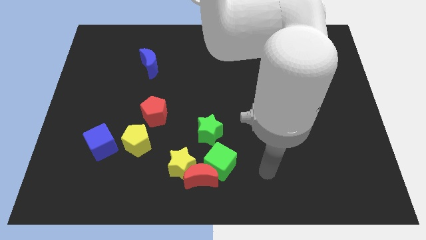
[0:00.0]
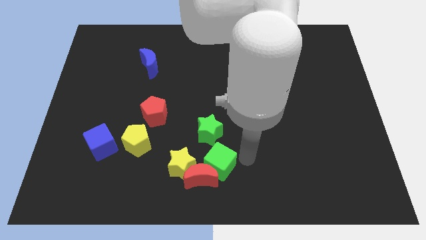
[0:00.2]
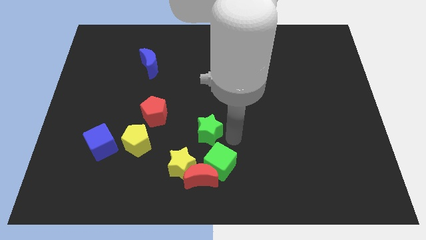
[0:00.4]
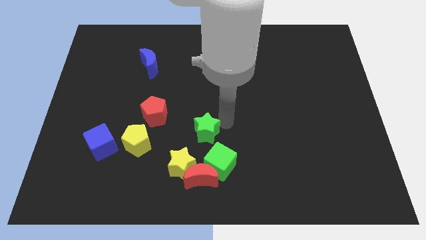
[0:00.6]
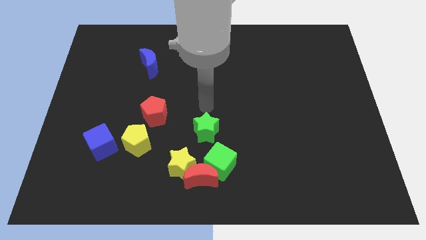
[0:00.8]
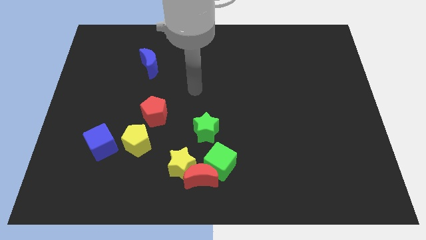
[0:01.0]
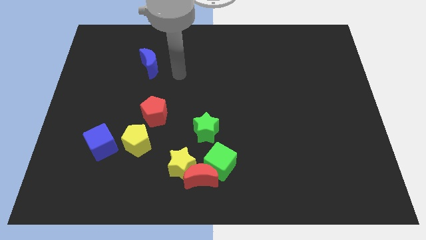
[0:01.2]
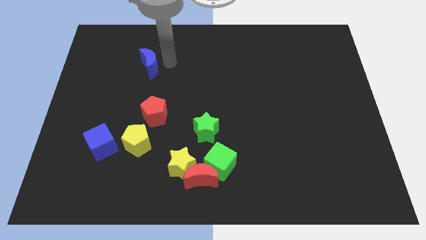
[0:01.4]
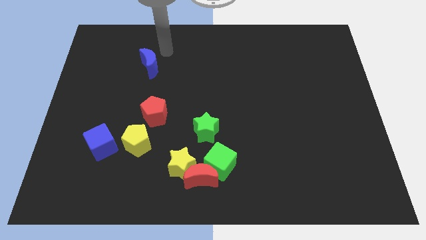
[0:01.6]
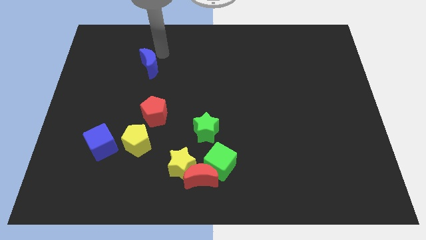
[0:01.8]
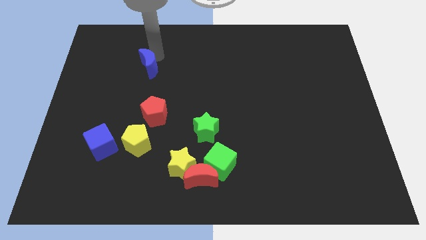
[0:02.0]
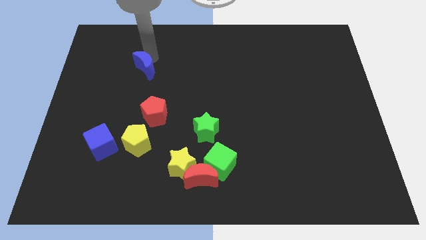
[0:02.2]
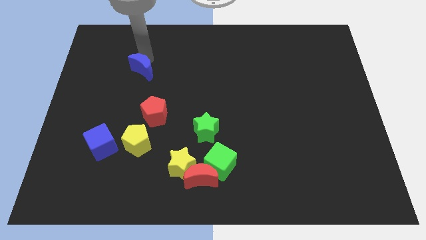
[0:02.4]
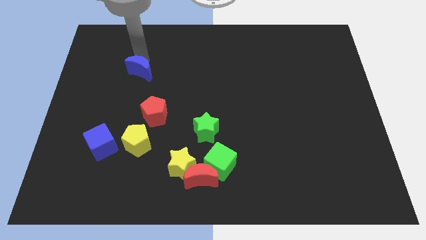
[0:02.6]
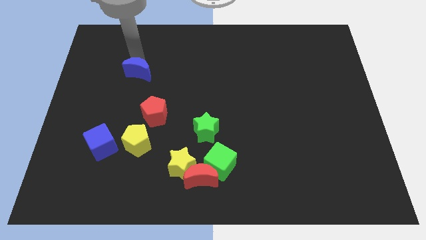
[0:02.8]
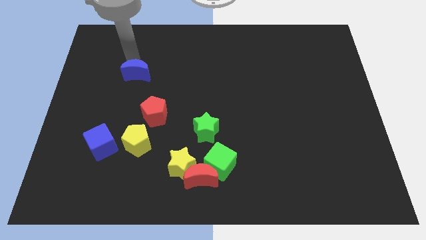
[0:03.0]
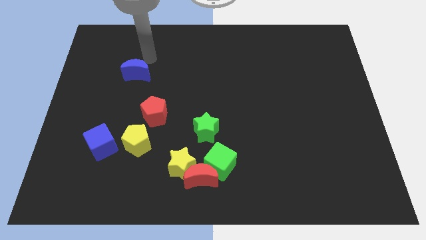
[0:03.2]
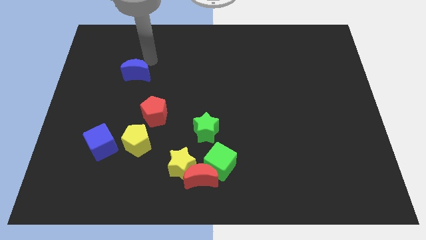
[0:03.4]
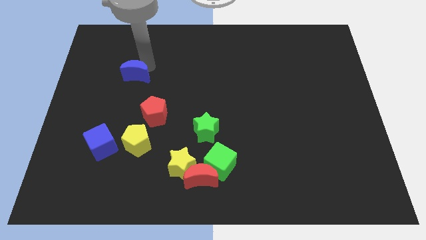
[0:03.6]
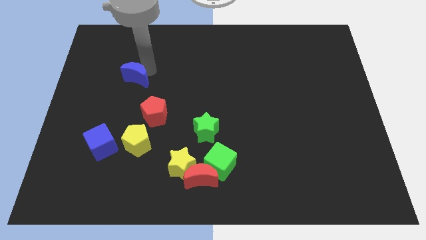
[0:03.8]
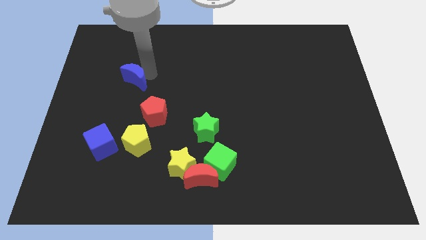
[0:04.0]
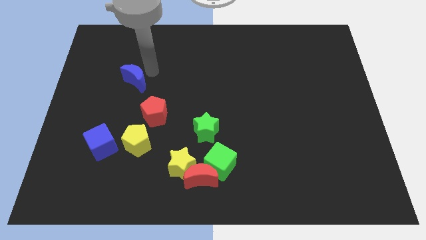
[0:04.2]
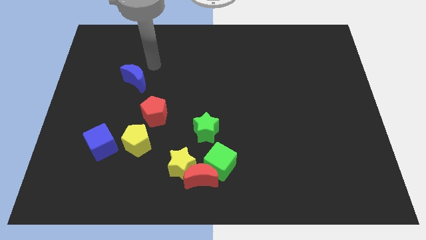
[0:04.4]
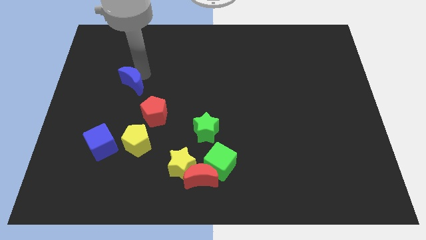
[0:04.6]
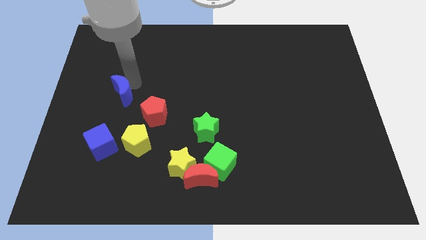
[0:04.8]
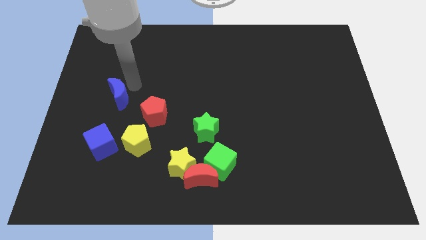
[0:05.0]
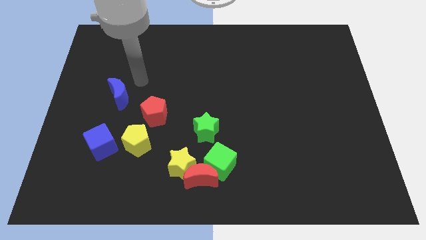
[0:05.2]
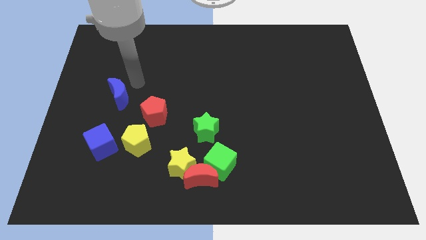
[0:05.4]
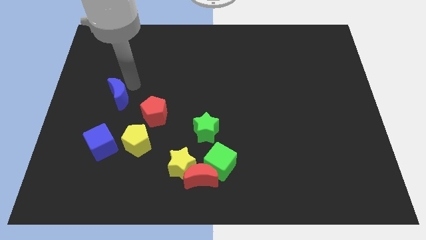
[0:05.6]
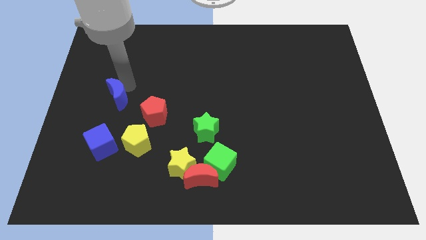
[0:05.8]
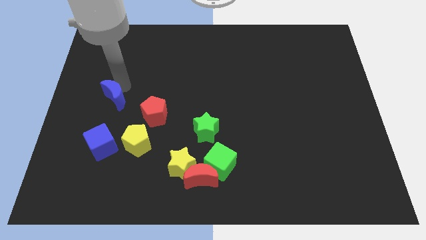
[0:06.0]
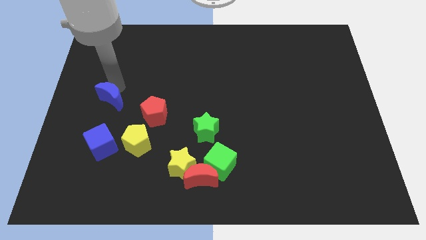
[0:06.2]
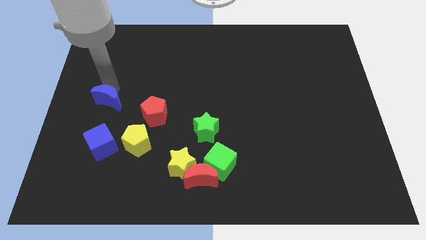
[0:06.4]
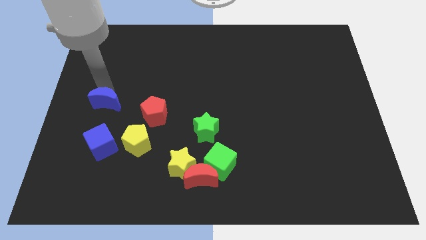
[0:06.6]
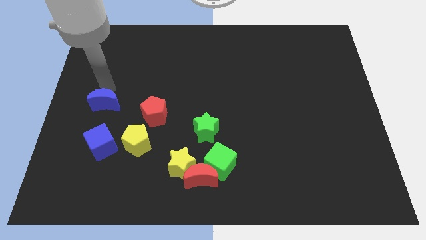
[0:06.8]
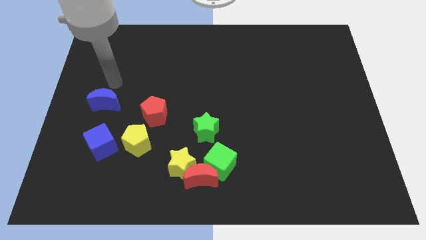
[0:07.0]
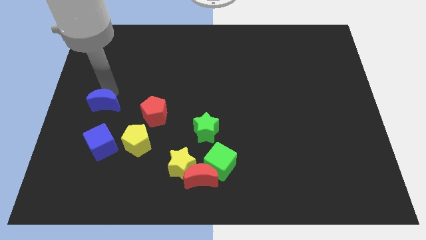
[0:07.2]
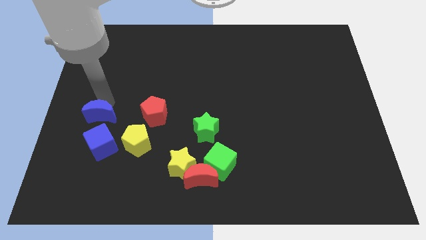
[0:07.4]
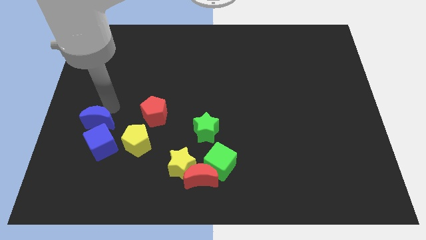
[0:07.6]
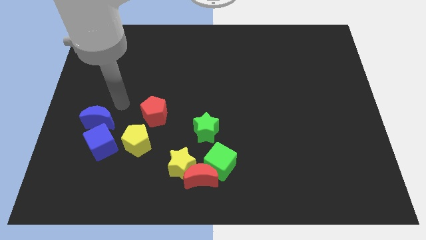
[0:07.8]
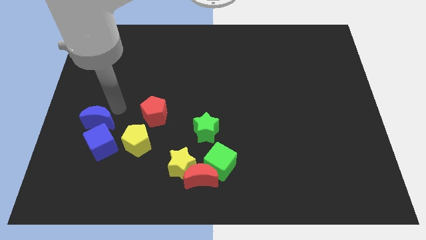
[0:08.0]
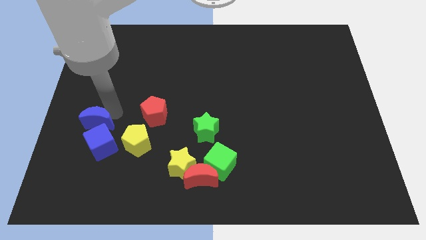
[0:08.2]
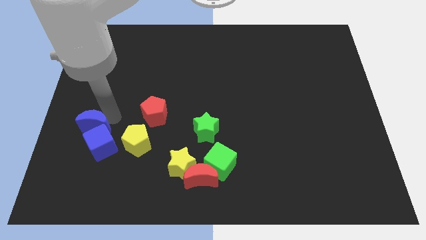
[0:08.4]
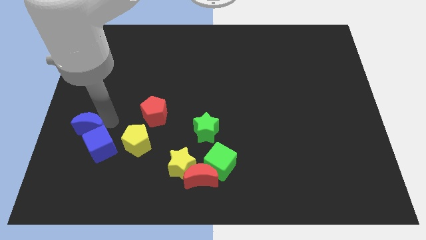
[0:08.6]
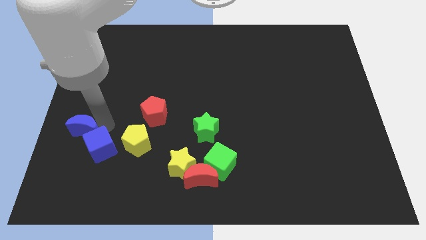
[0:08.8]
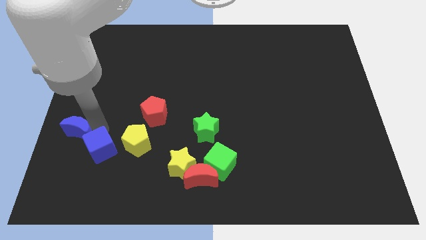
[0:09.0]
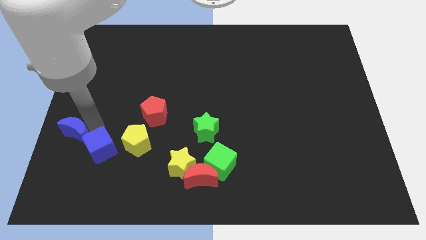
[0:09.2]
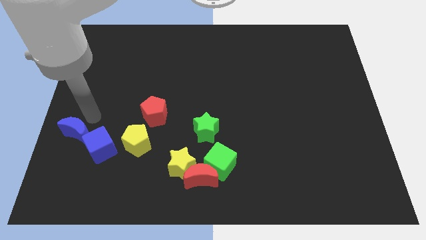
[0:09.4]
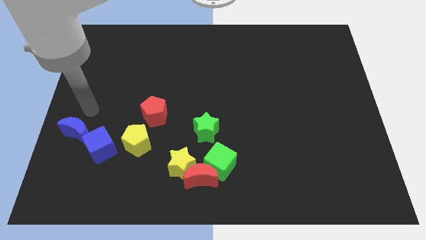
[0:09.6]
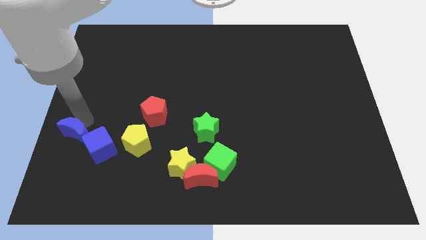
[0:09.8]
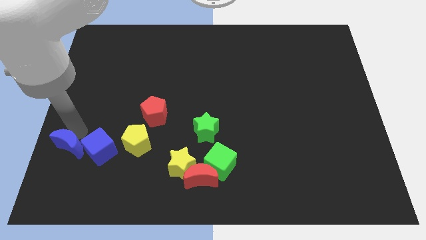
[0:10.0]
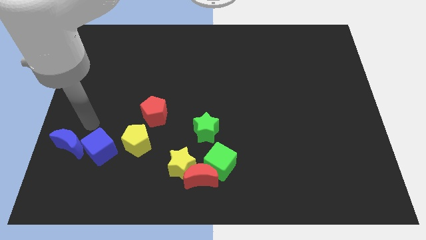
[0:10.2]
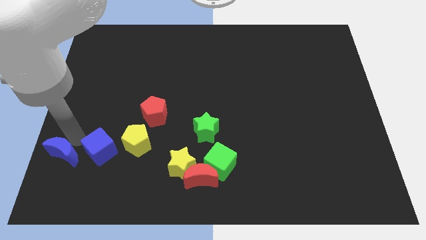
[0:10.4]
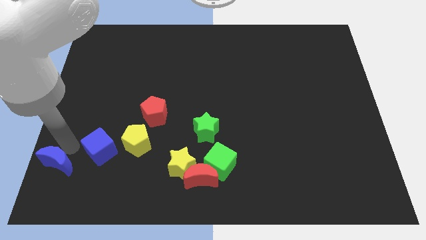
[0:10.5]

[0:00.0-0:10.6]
put the blue moon to the lower left corner

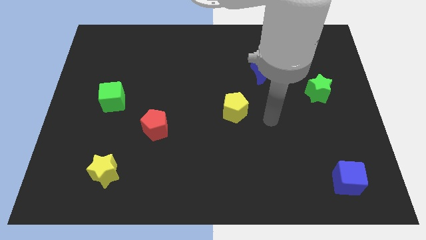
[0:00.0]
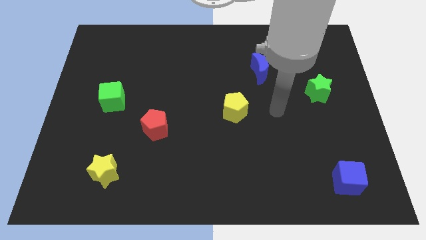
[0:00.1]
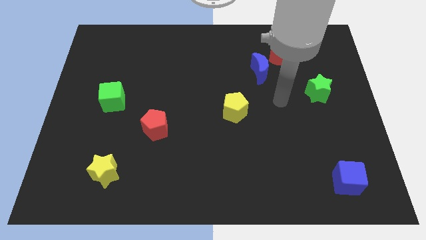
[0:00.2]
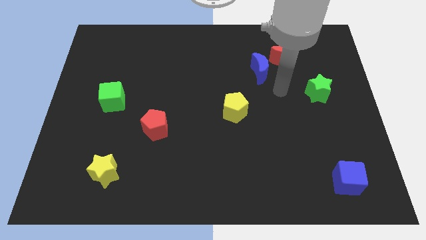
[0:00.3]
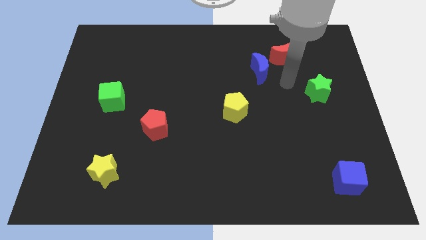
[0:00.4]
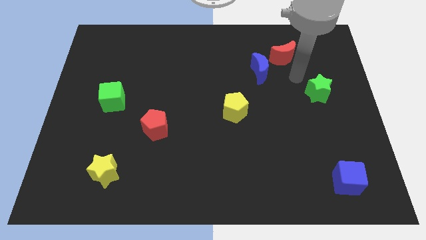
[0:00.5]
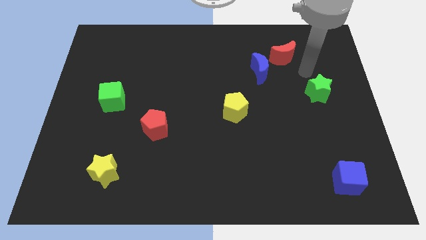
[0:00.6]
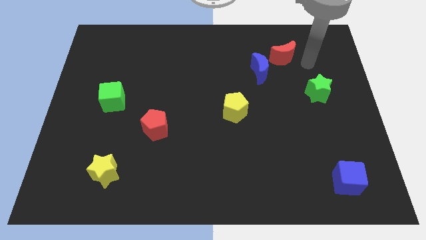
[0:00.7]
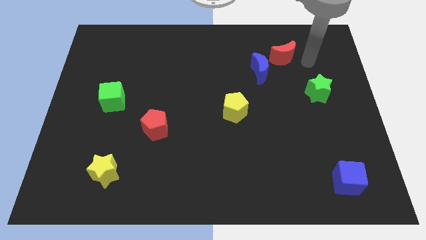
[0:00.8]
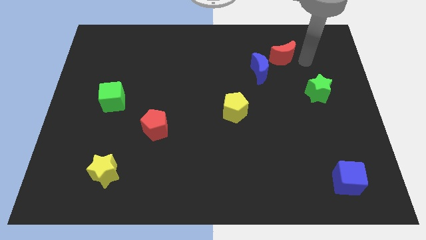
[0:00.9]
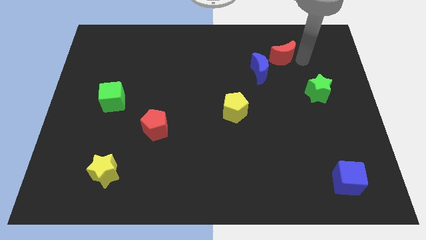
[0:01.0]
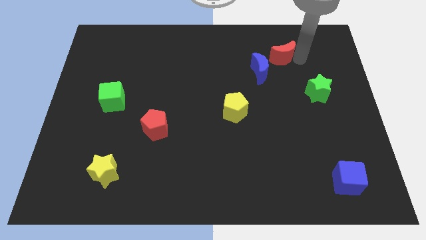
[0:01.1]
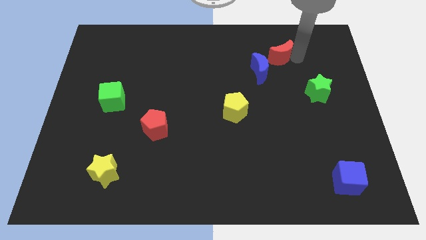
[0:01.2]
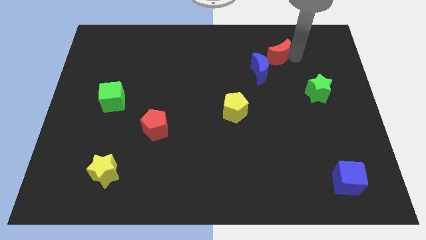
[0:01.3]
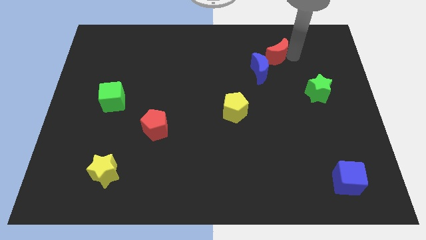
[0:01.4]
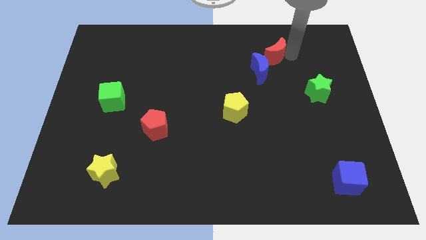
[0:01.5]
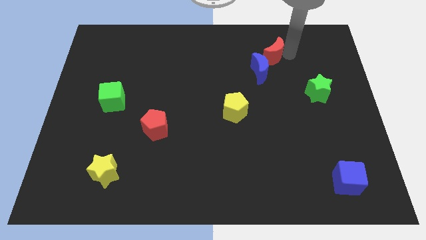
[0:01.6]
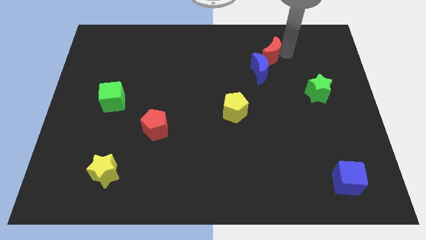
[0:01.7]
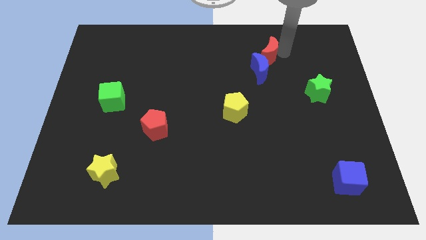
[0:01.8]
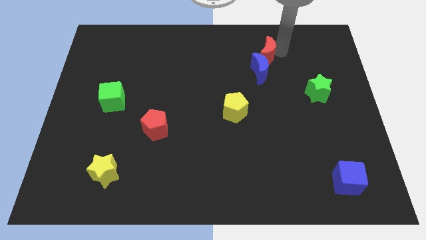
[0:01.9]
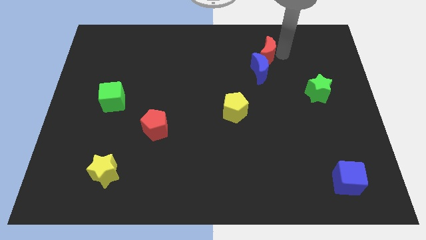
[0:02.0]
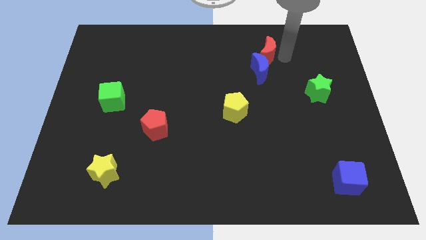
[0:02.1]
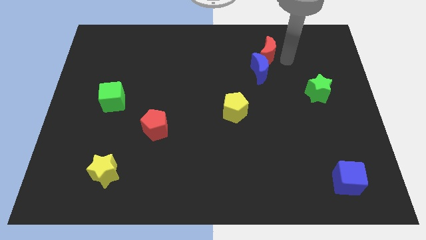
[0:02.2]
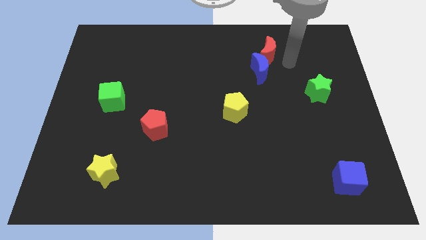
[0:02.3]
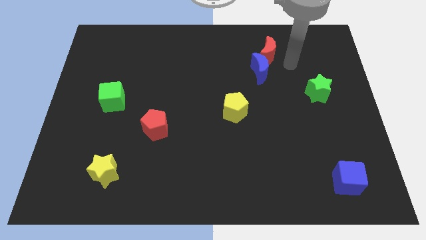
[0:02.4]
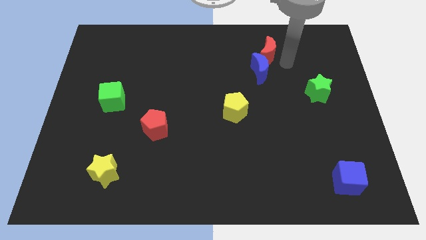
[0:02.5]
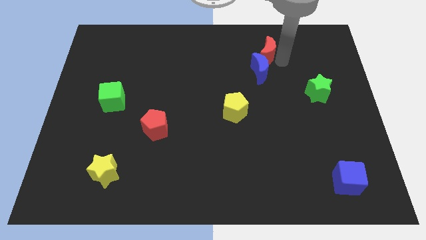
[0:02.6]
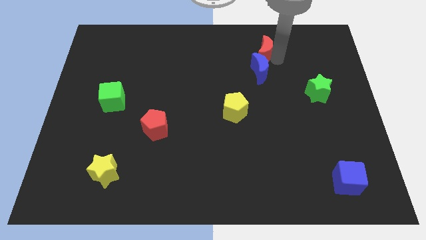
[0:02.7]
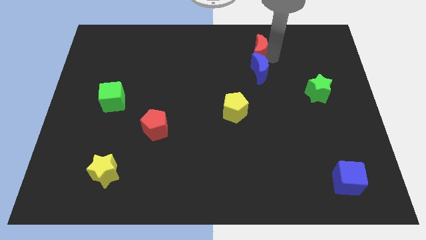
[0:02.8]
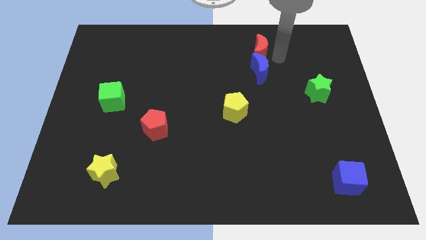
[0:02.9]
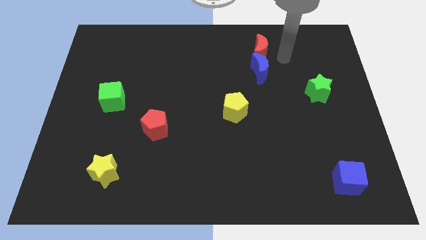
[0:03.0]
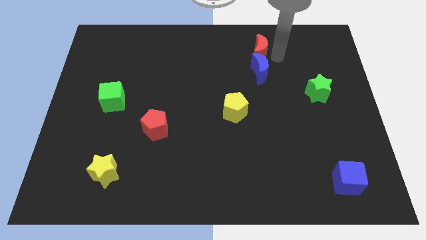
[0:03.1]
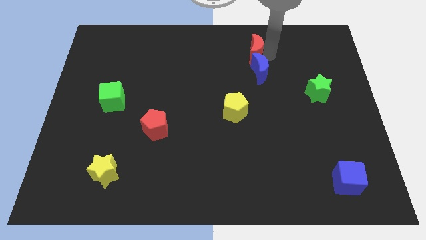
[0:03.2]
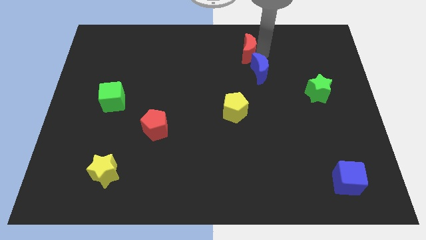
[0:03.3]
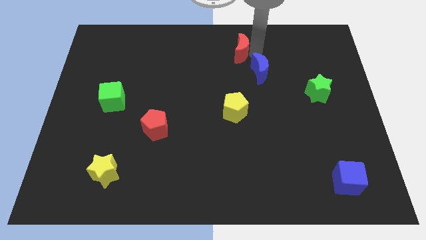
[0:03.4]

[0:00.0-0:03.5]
put the red moon to the towards your base
